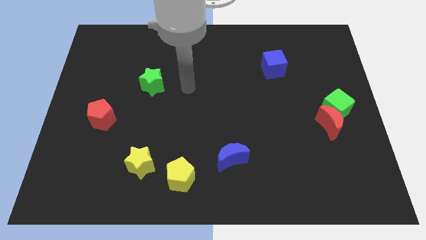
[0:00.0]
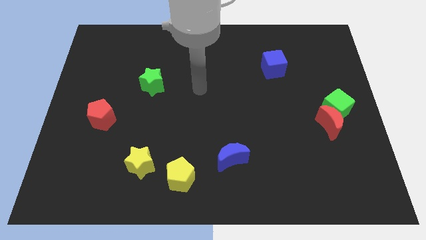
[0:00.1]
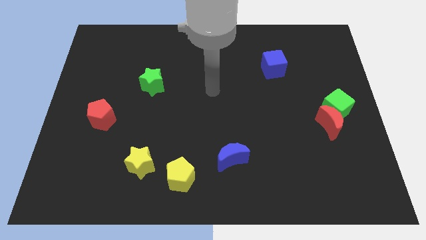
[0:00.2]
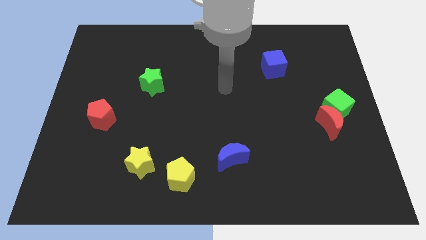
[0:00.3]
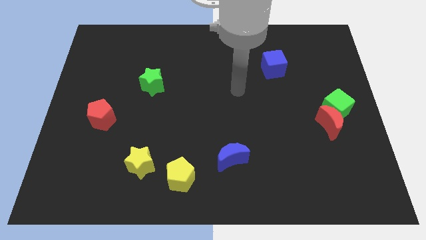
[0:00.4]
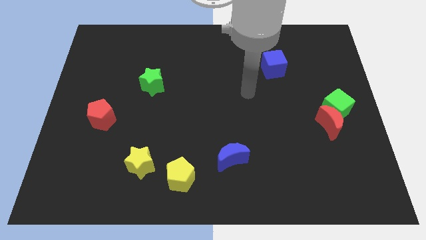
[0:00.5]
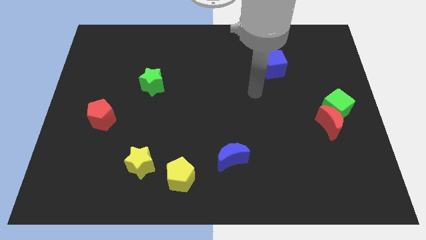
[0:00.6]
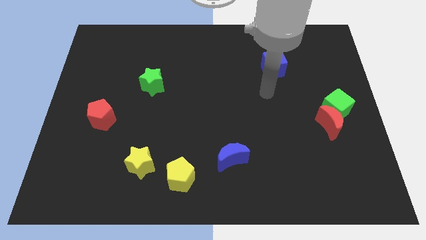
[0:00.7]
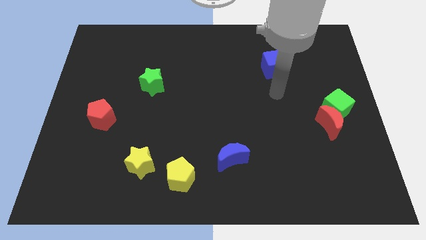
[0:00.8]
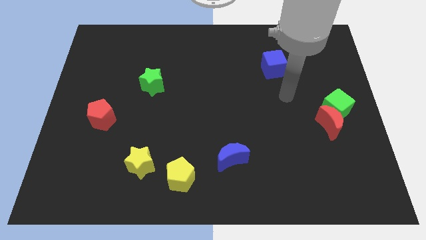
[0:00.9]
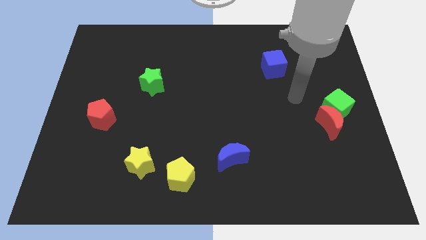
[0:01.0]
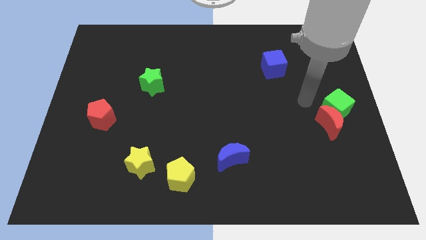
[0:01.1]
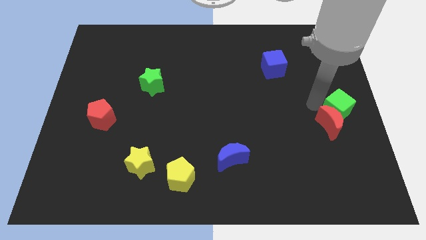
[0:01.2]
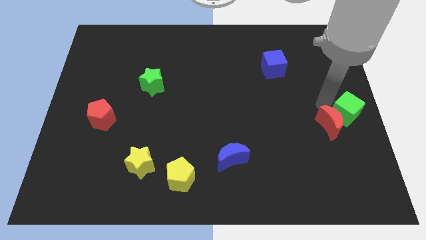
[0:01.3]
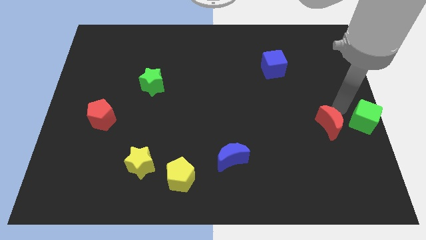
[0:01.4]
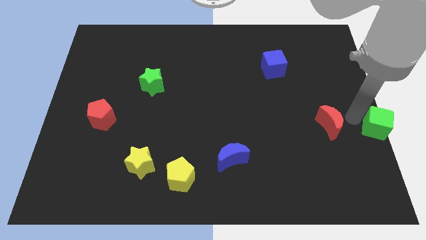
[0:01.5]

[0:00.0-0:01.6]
separate the red moon from the green cube

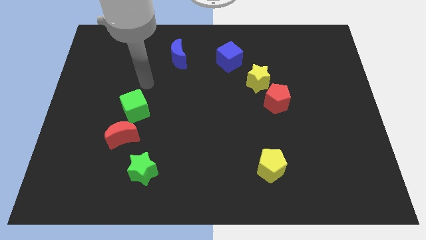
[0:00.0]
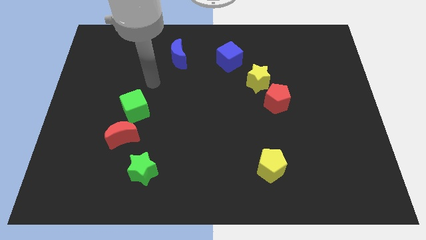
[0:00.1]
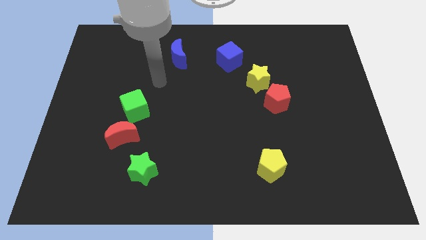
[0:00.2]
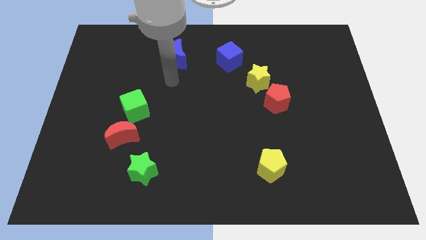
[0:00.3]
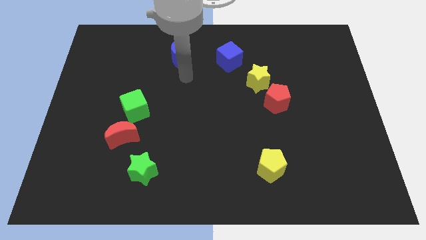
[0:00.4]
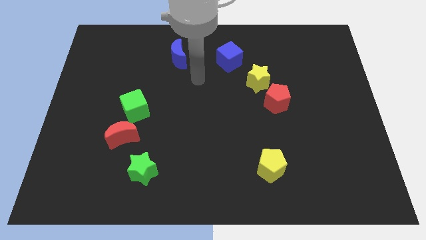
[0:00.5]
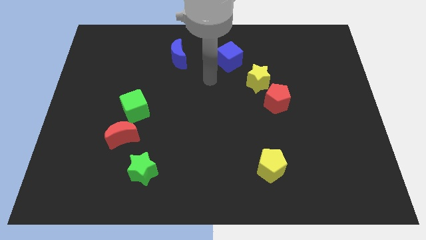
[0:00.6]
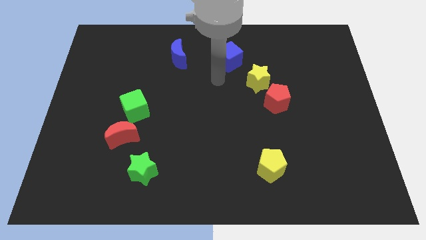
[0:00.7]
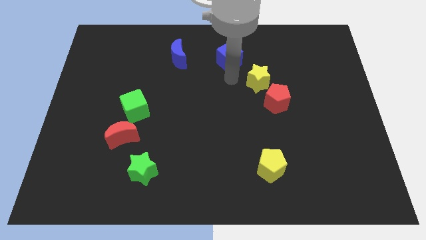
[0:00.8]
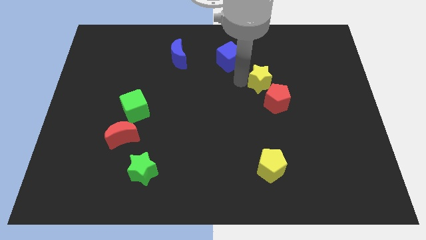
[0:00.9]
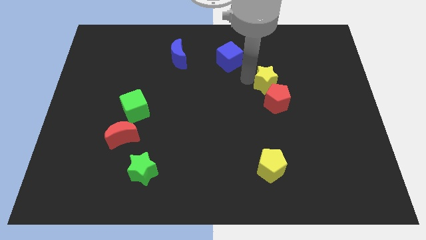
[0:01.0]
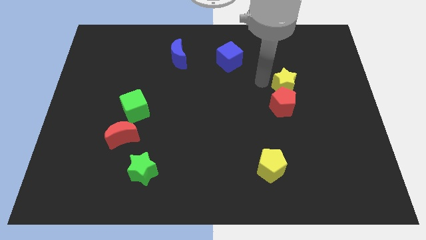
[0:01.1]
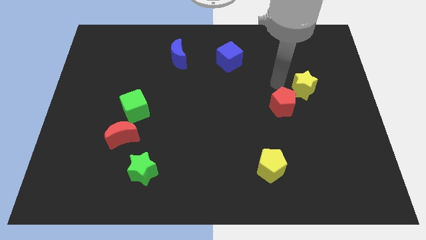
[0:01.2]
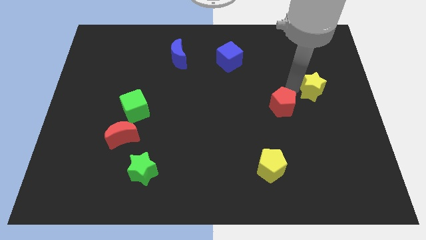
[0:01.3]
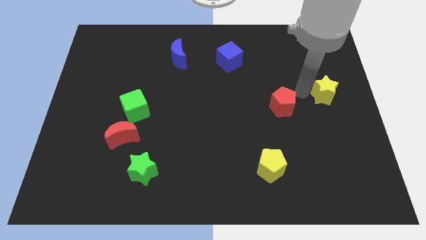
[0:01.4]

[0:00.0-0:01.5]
move the red pentagon away from the yellow star

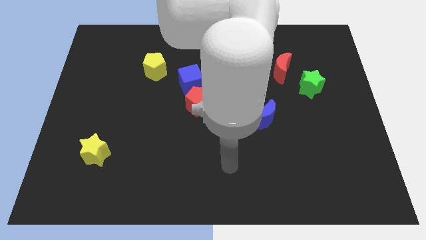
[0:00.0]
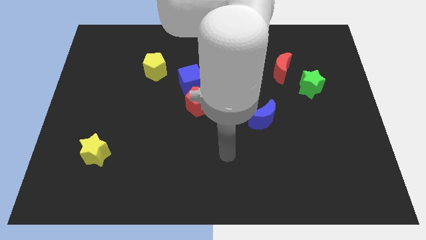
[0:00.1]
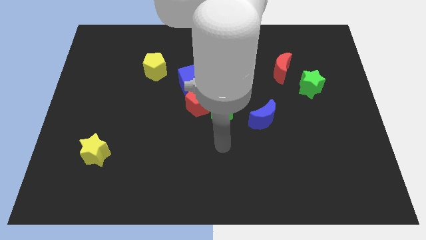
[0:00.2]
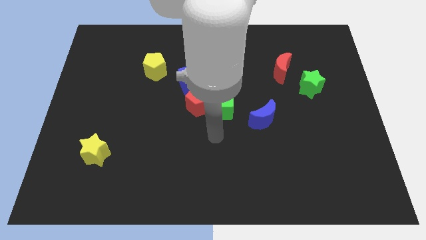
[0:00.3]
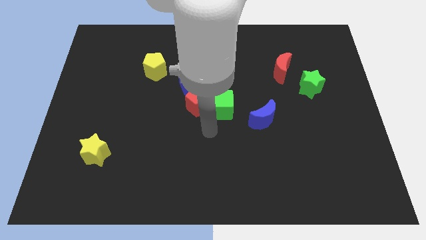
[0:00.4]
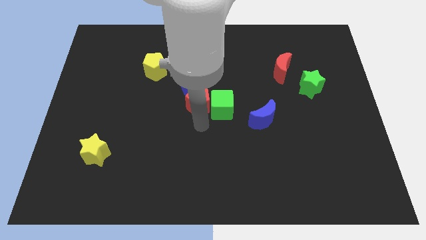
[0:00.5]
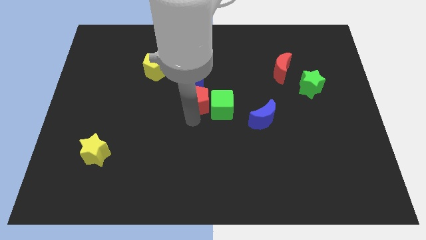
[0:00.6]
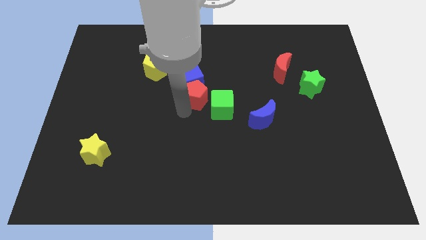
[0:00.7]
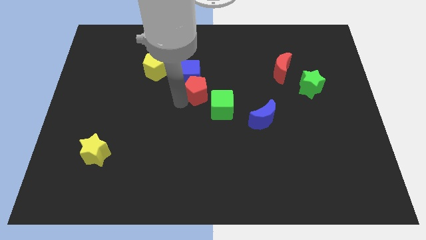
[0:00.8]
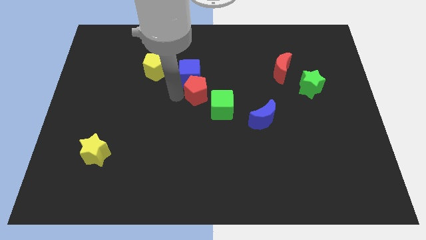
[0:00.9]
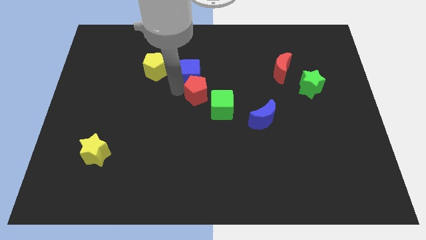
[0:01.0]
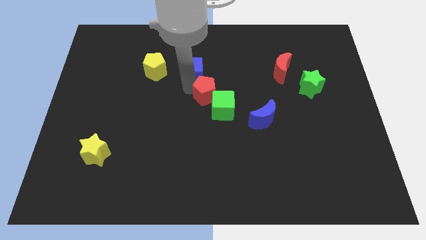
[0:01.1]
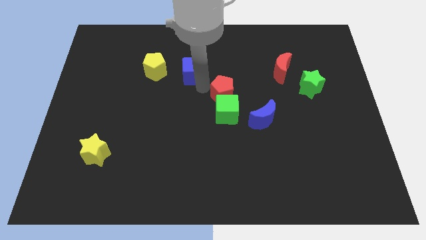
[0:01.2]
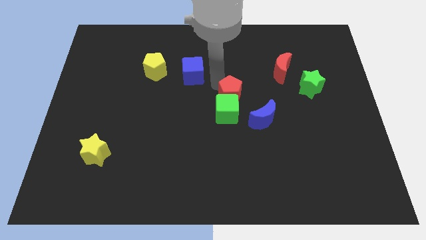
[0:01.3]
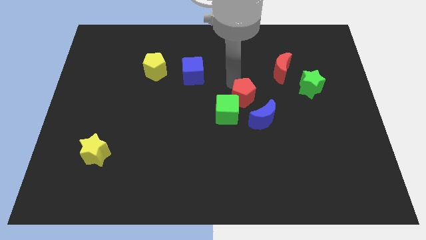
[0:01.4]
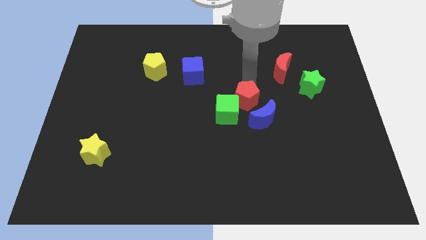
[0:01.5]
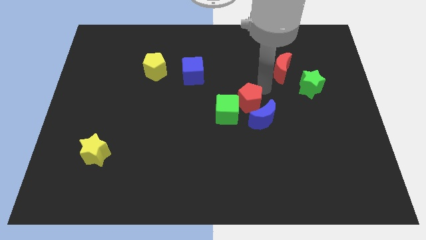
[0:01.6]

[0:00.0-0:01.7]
move the red pentagon away from the green cube and blue cube

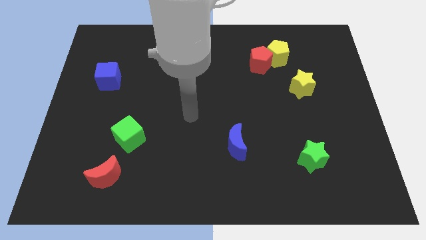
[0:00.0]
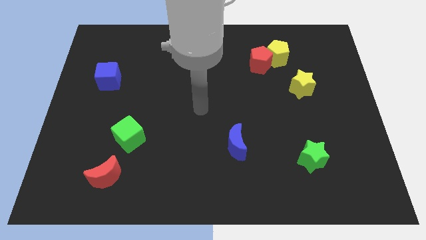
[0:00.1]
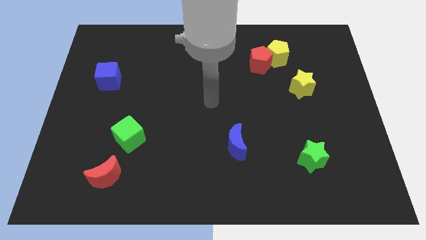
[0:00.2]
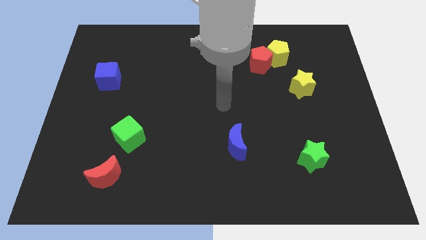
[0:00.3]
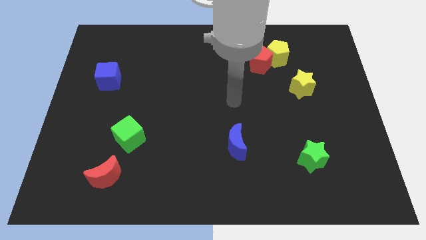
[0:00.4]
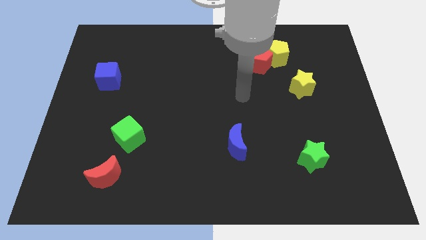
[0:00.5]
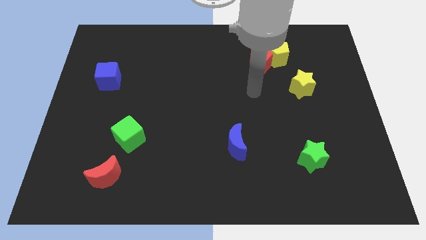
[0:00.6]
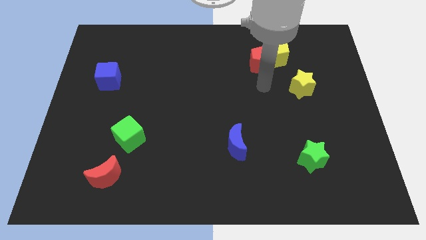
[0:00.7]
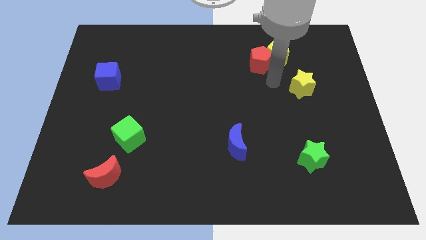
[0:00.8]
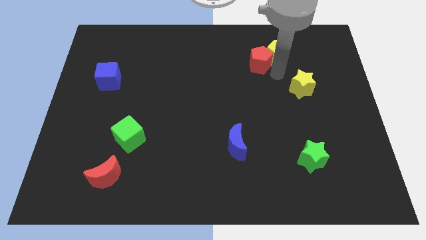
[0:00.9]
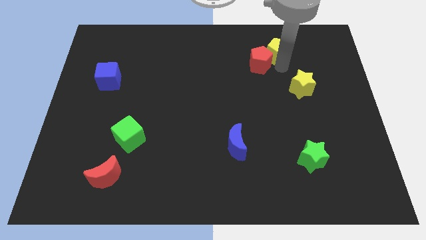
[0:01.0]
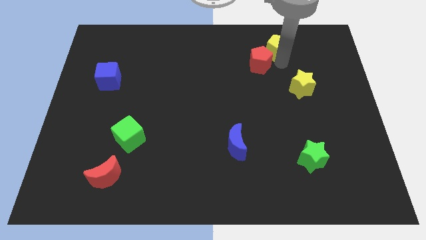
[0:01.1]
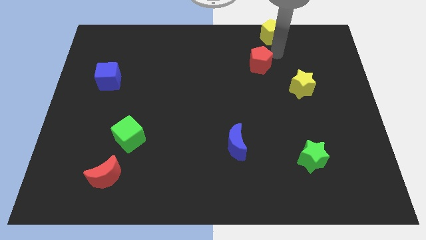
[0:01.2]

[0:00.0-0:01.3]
separate the red pentagon from the yellow pentagon

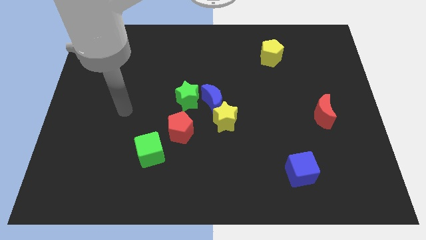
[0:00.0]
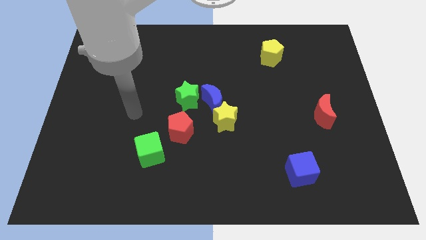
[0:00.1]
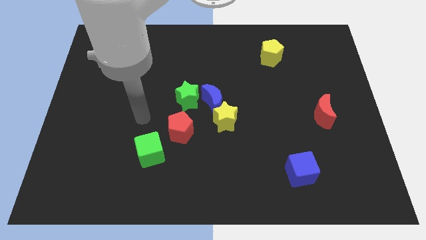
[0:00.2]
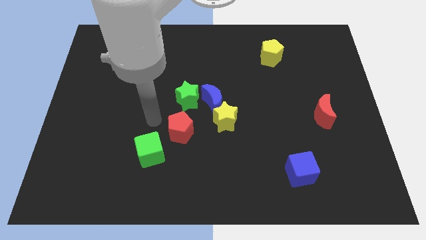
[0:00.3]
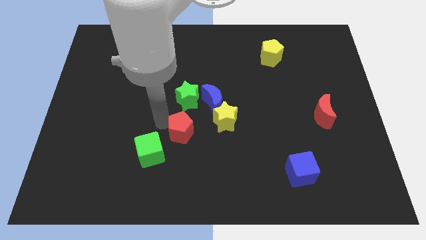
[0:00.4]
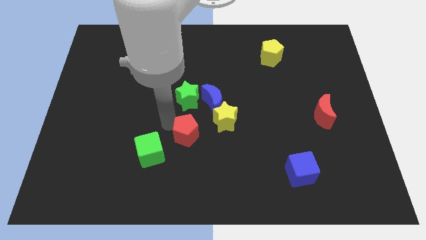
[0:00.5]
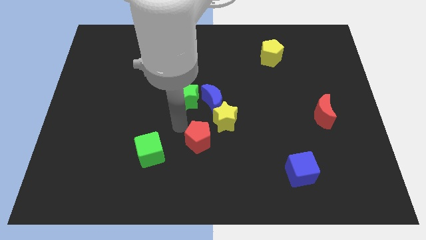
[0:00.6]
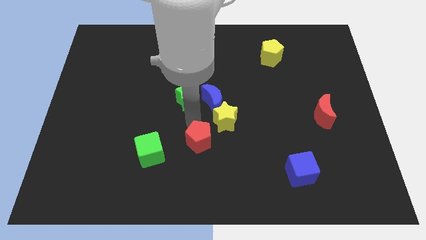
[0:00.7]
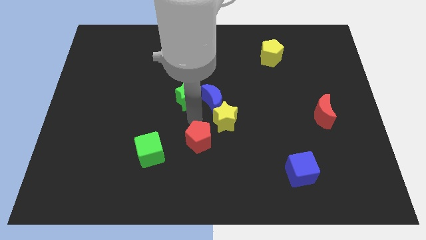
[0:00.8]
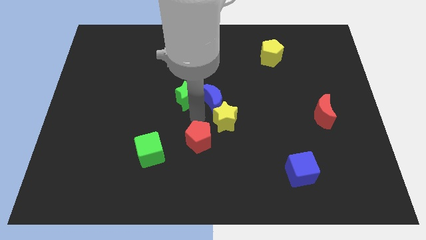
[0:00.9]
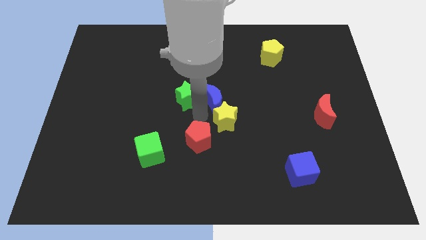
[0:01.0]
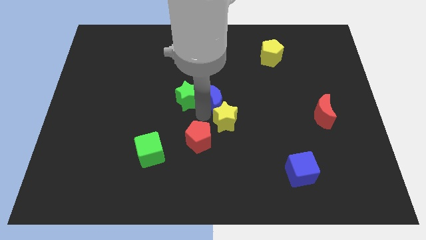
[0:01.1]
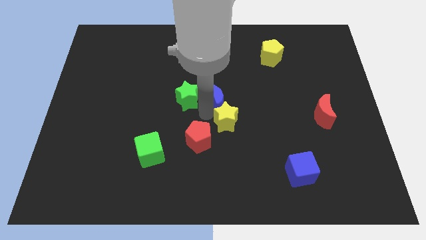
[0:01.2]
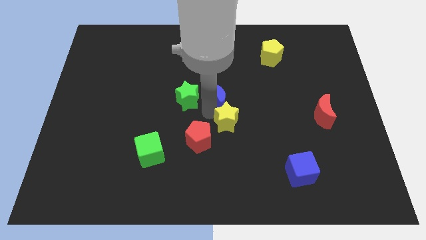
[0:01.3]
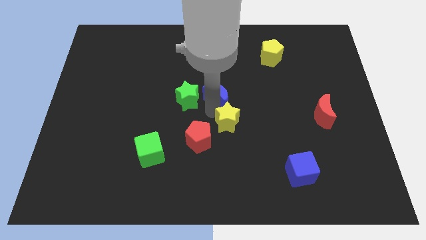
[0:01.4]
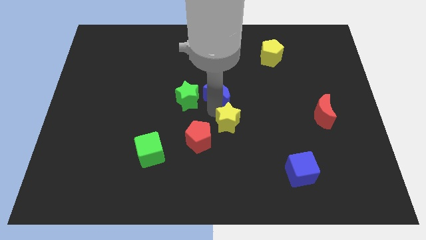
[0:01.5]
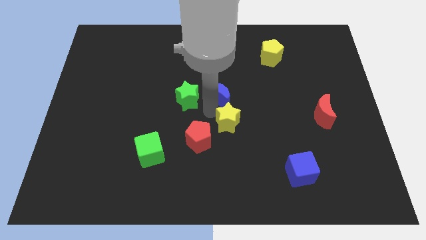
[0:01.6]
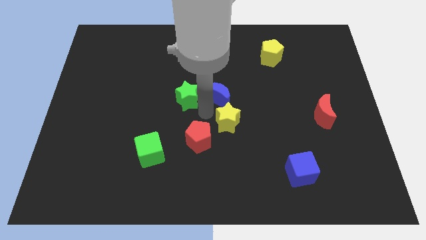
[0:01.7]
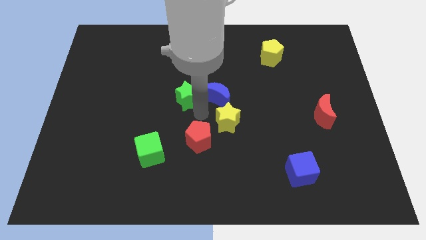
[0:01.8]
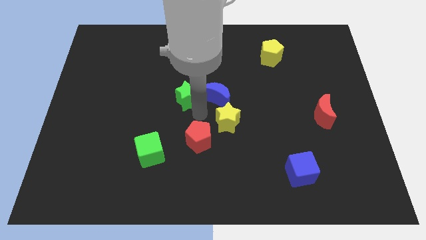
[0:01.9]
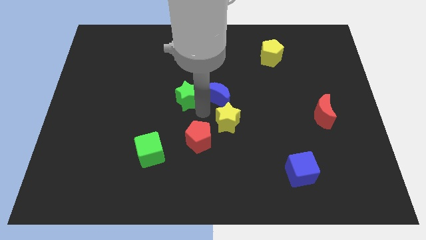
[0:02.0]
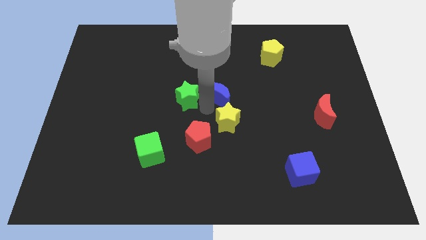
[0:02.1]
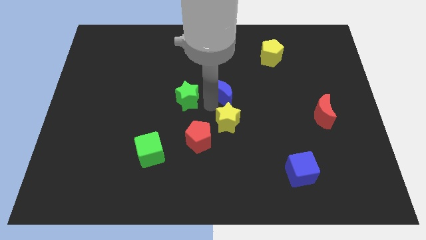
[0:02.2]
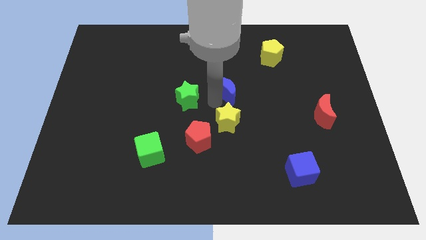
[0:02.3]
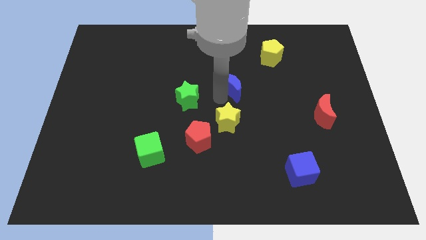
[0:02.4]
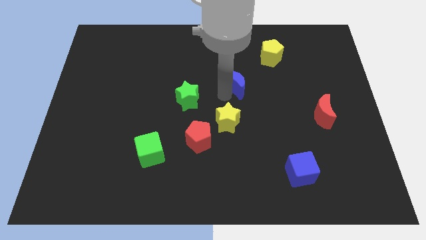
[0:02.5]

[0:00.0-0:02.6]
separate the blue moon from the yellow star and green star

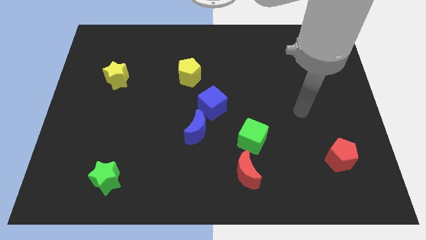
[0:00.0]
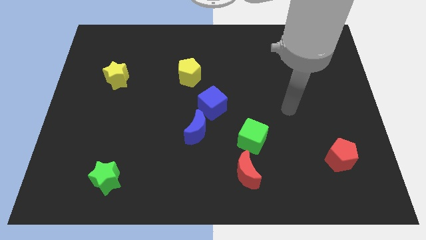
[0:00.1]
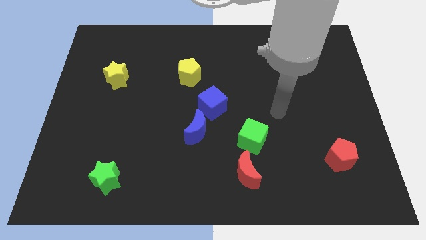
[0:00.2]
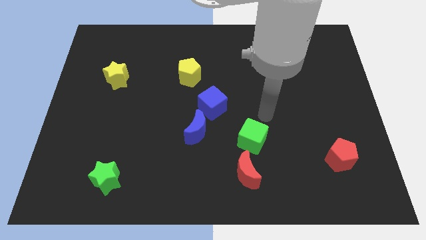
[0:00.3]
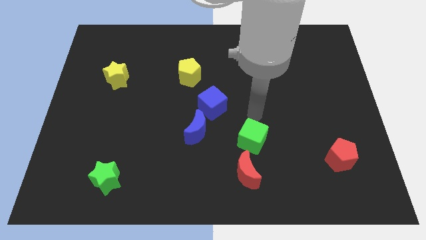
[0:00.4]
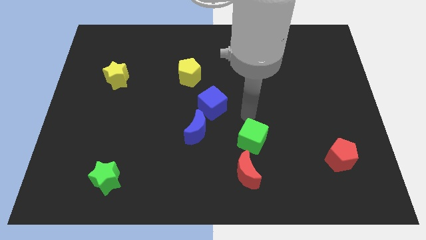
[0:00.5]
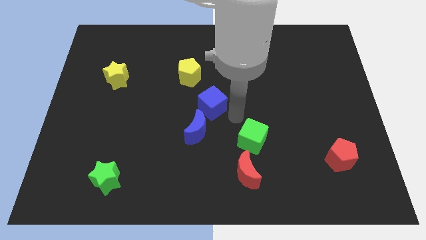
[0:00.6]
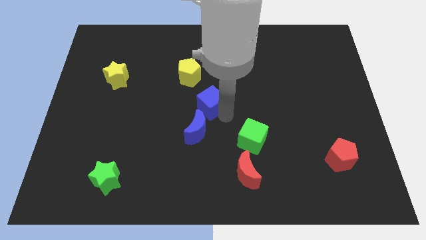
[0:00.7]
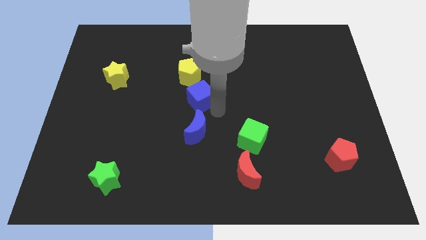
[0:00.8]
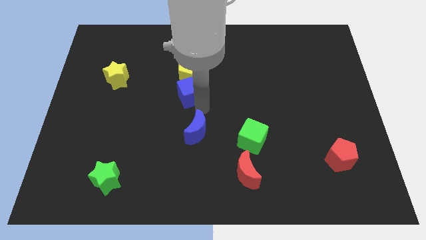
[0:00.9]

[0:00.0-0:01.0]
separate the blue moon from the blue cube
